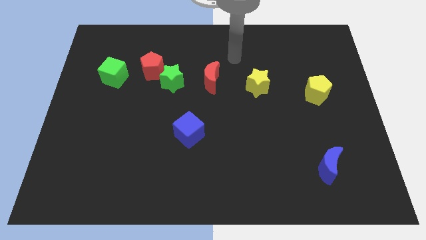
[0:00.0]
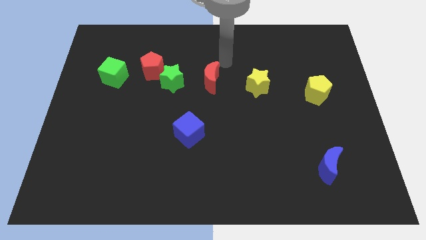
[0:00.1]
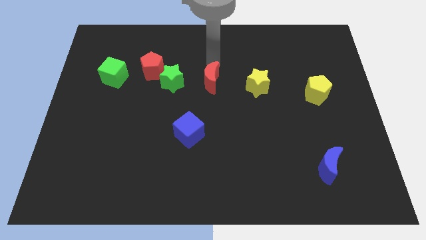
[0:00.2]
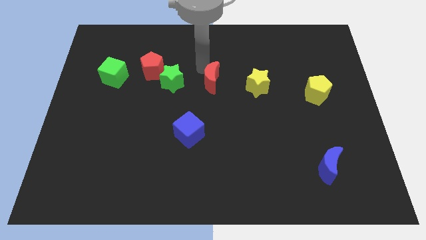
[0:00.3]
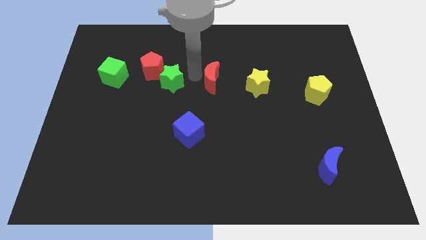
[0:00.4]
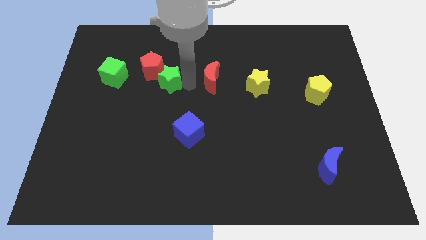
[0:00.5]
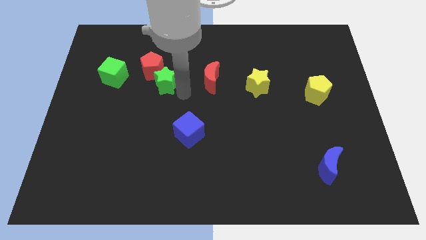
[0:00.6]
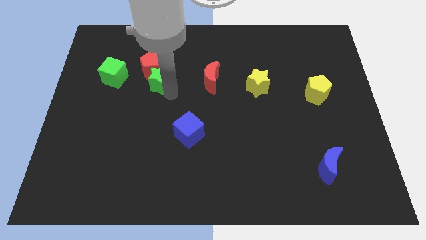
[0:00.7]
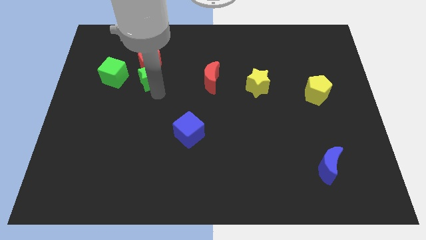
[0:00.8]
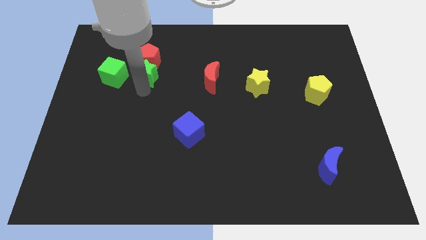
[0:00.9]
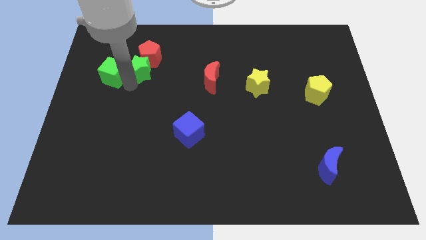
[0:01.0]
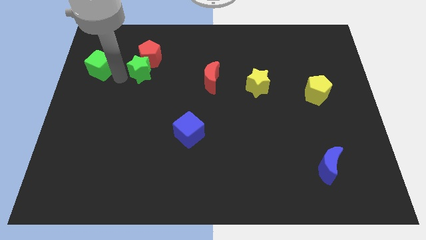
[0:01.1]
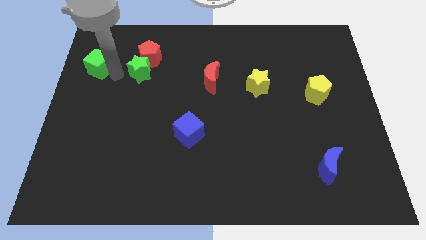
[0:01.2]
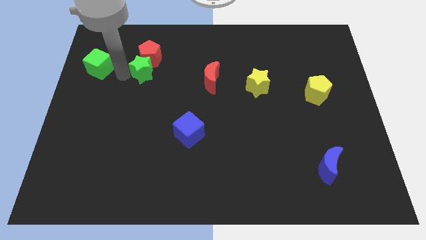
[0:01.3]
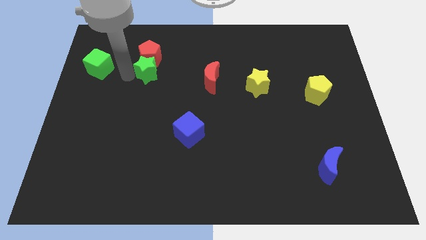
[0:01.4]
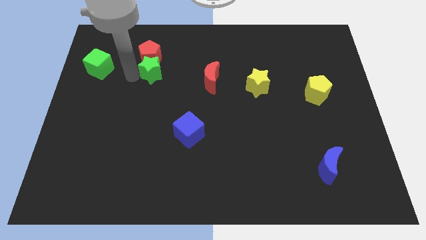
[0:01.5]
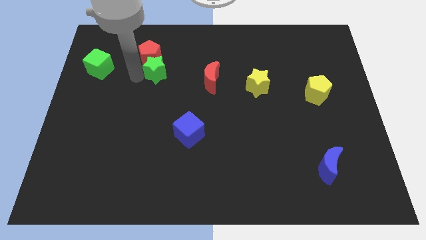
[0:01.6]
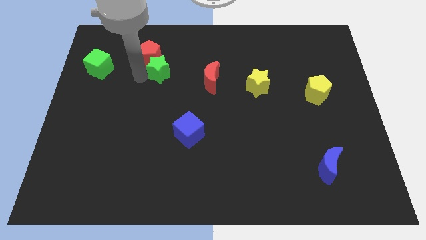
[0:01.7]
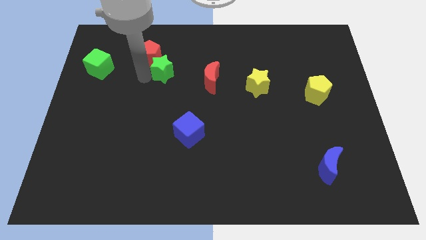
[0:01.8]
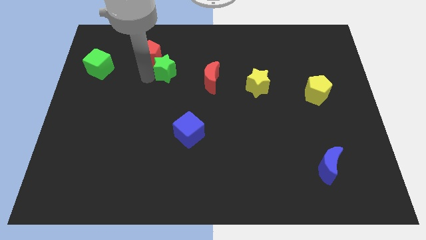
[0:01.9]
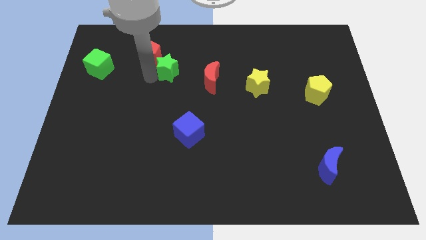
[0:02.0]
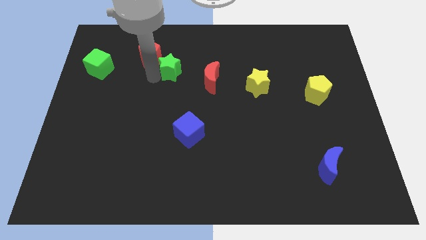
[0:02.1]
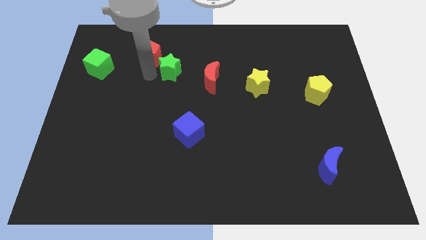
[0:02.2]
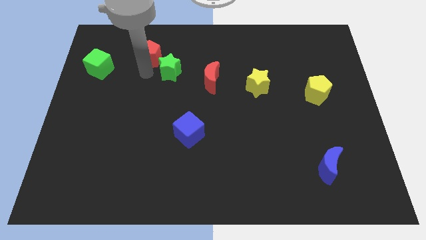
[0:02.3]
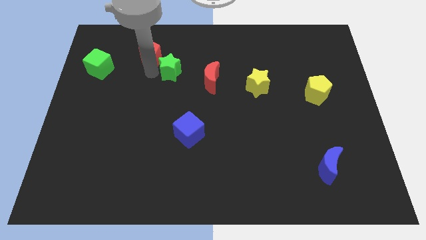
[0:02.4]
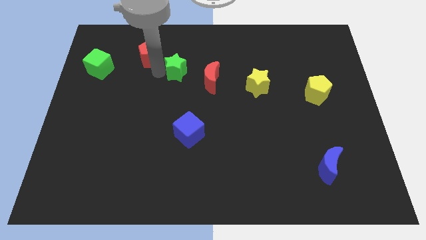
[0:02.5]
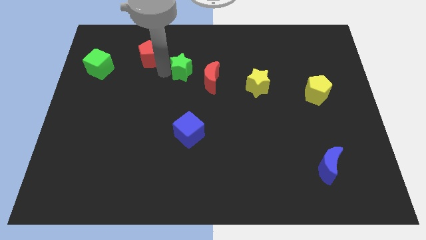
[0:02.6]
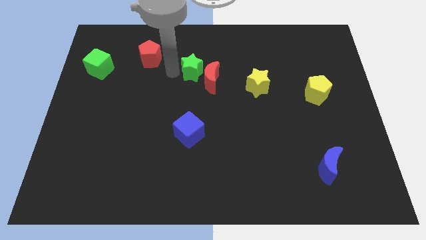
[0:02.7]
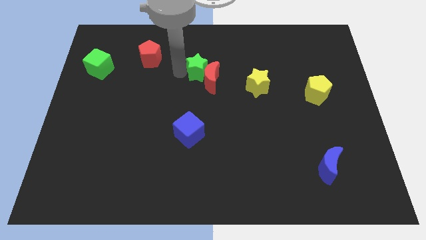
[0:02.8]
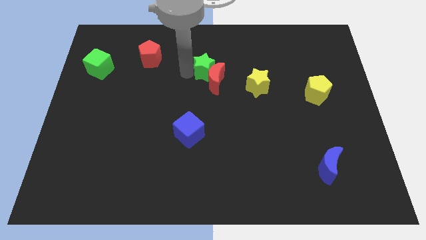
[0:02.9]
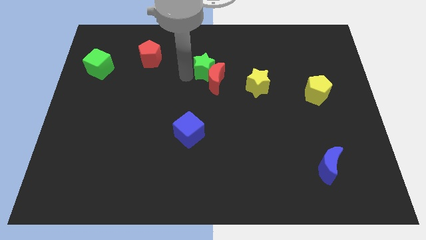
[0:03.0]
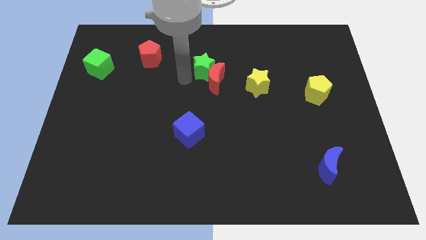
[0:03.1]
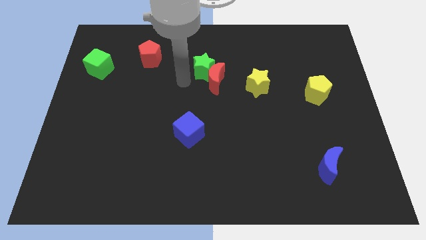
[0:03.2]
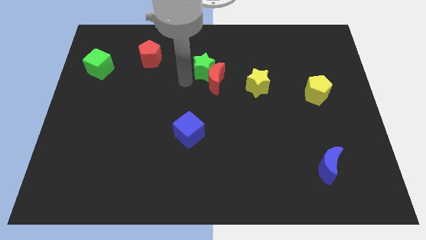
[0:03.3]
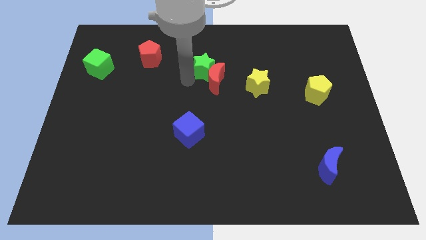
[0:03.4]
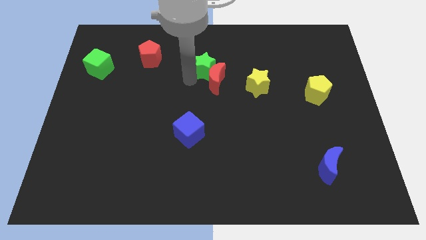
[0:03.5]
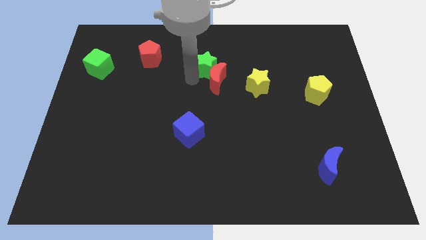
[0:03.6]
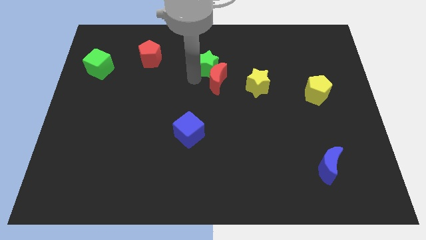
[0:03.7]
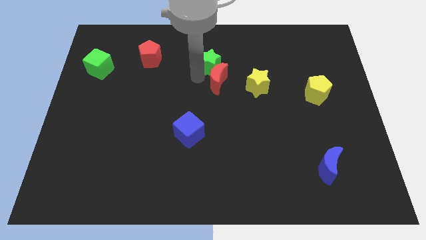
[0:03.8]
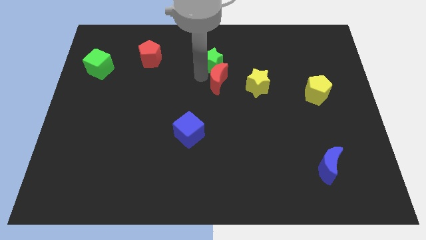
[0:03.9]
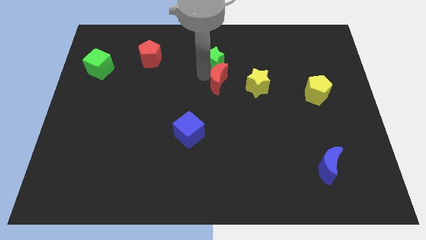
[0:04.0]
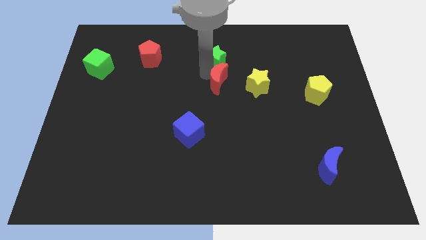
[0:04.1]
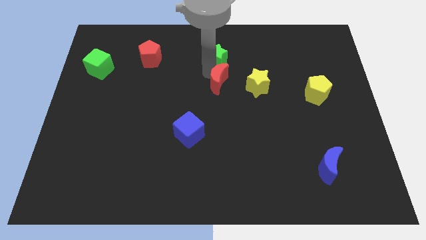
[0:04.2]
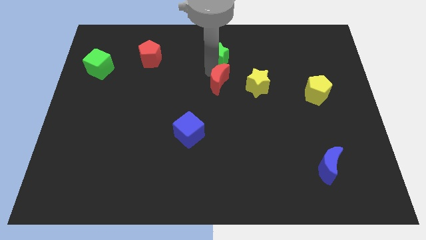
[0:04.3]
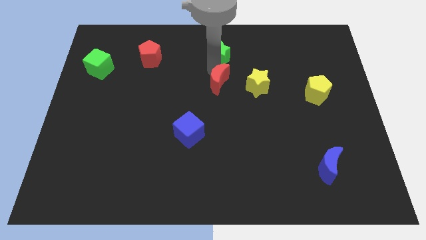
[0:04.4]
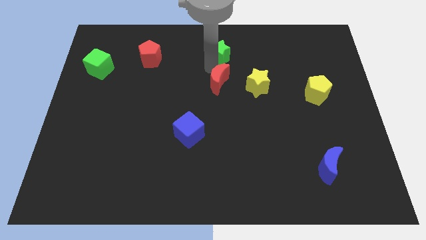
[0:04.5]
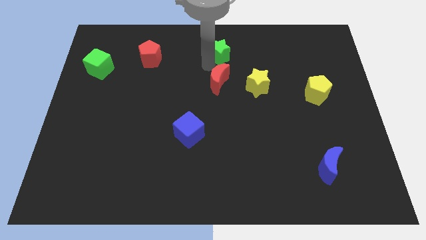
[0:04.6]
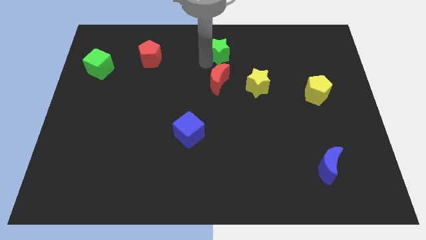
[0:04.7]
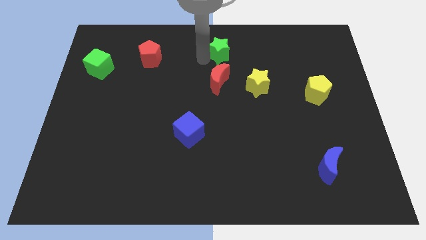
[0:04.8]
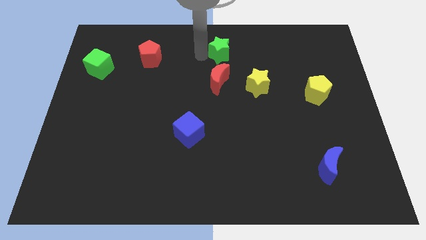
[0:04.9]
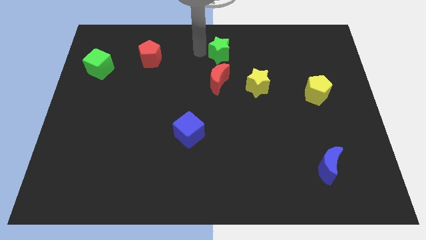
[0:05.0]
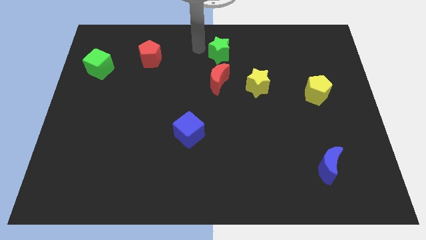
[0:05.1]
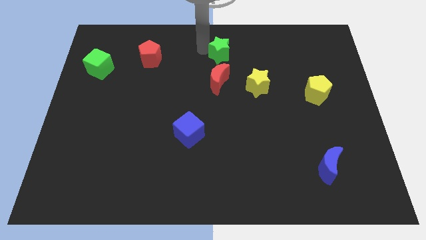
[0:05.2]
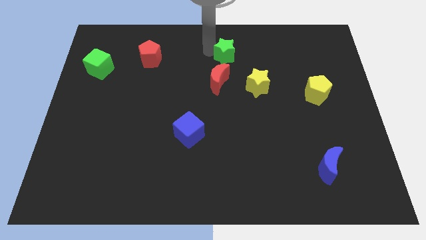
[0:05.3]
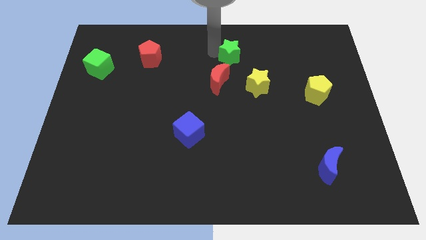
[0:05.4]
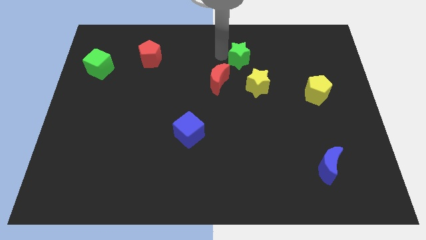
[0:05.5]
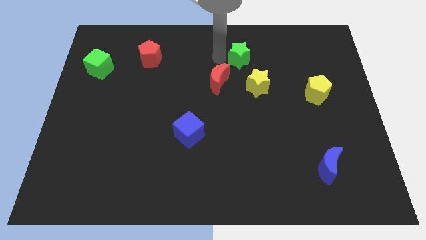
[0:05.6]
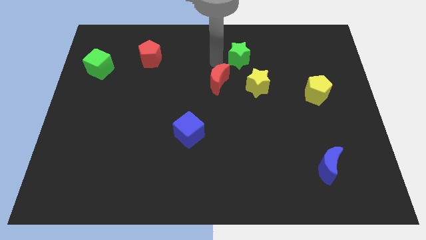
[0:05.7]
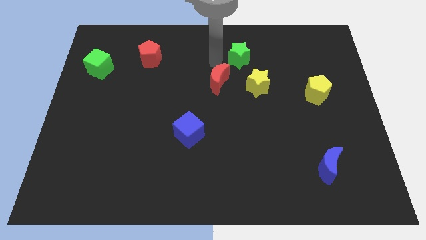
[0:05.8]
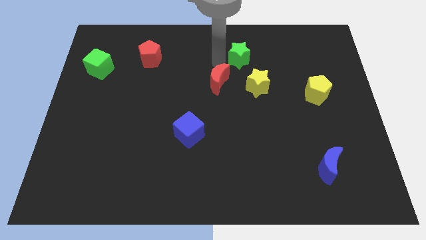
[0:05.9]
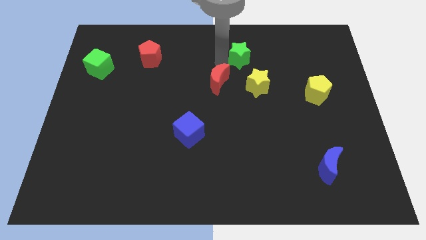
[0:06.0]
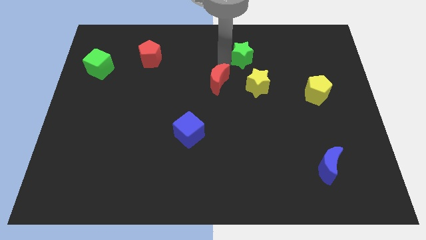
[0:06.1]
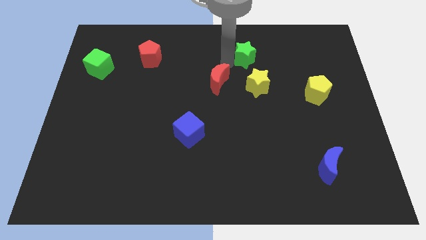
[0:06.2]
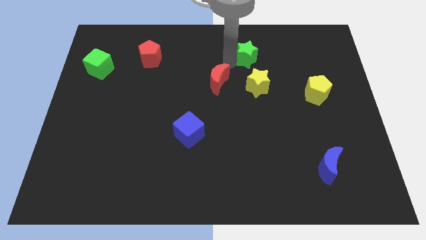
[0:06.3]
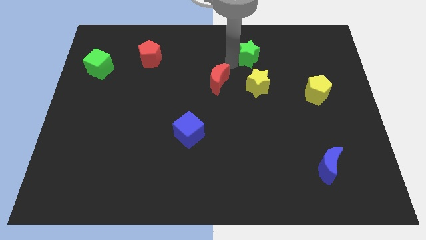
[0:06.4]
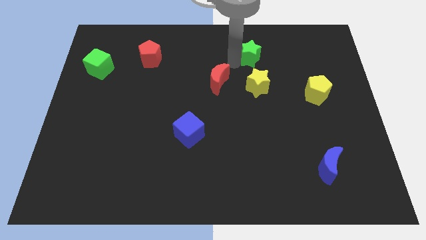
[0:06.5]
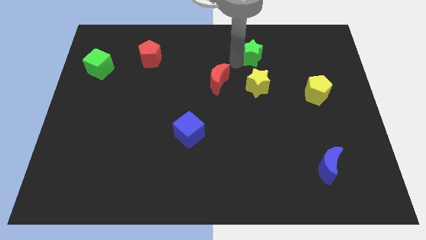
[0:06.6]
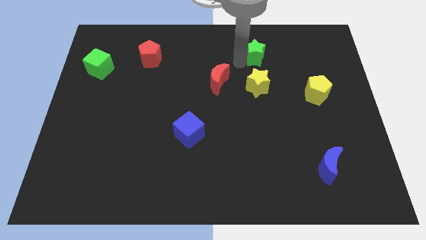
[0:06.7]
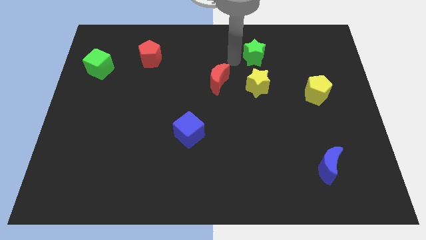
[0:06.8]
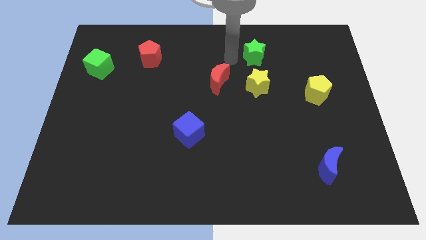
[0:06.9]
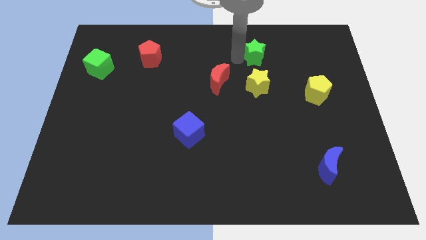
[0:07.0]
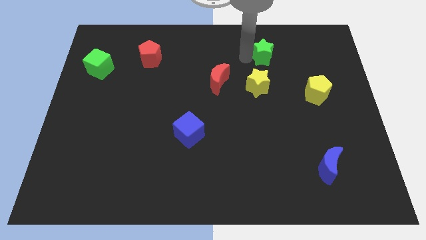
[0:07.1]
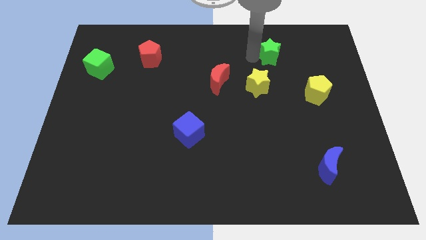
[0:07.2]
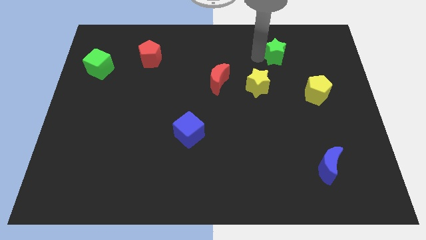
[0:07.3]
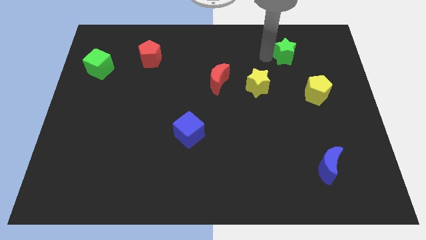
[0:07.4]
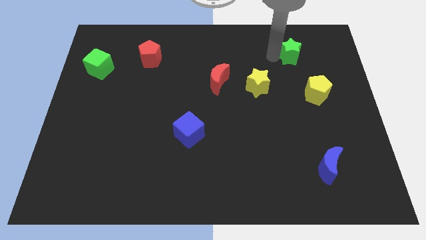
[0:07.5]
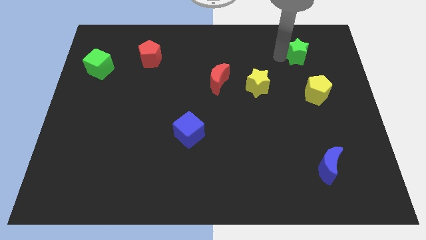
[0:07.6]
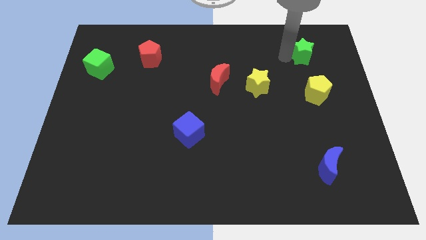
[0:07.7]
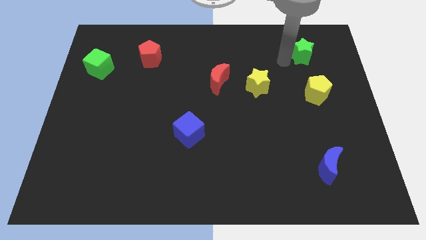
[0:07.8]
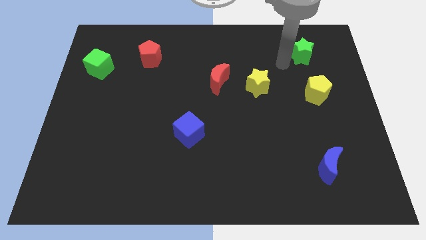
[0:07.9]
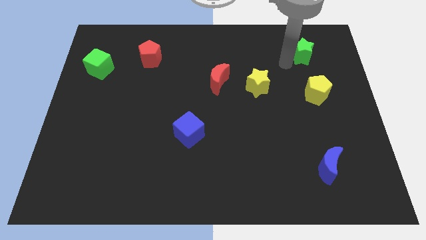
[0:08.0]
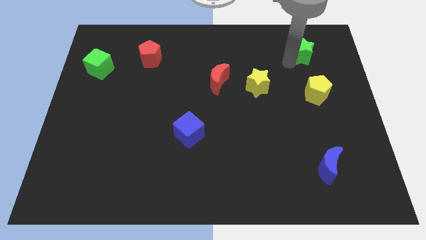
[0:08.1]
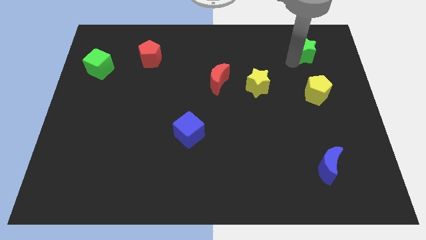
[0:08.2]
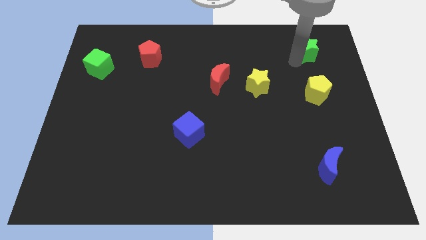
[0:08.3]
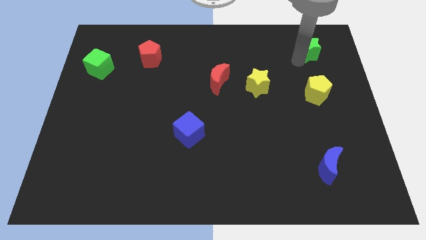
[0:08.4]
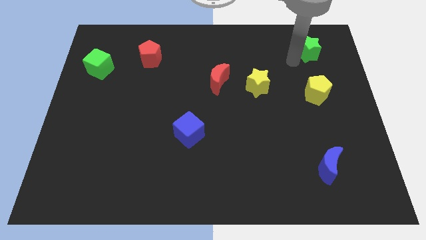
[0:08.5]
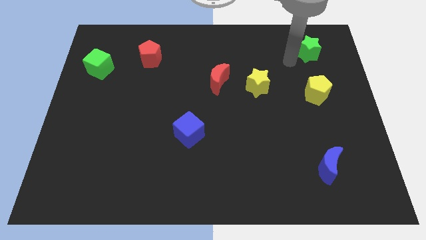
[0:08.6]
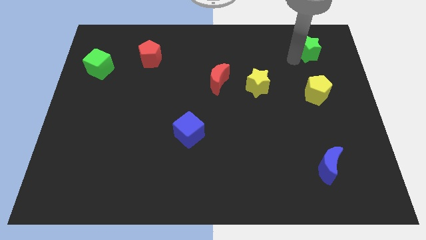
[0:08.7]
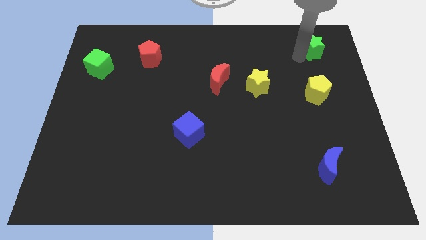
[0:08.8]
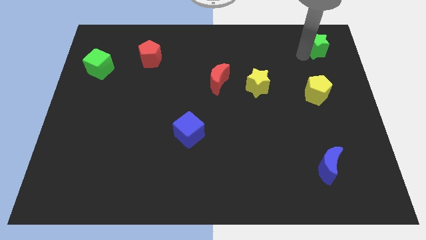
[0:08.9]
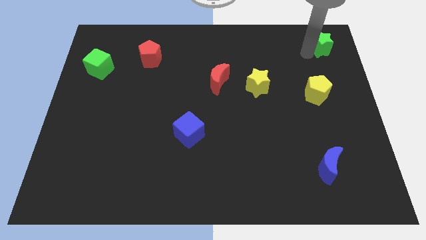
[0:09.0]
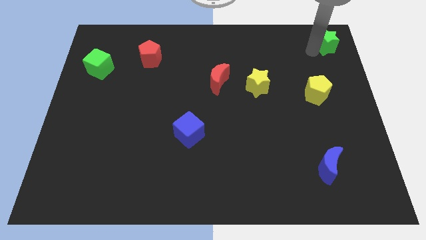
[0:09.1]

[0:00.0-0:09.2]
put the green star to the top right
